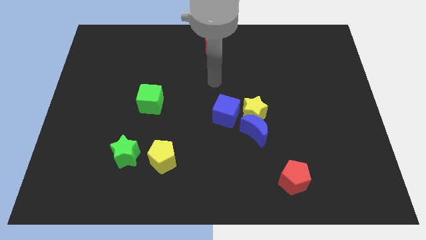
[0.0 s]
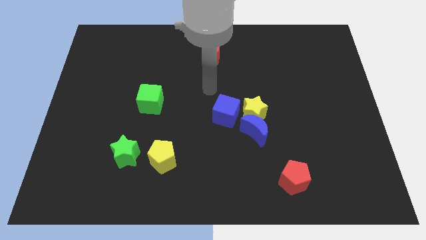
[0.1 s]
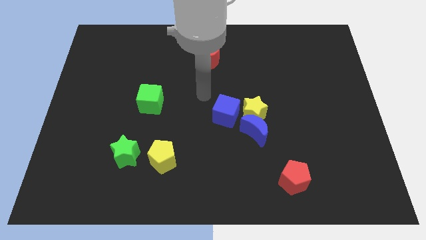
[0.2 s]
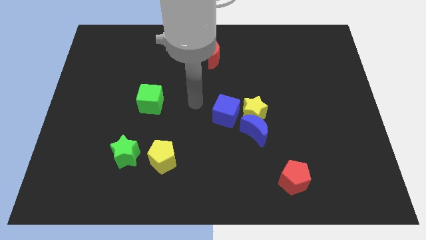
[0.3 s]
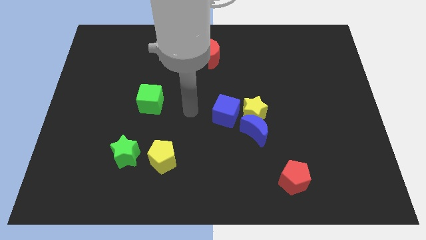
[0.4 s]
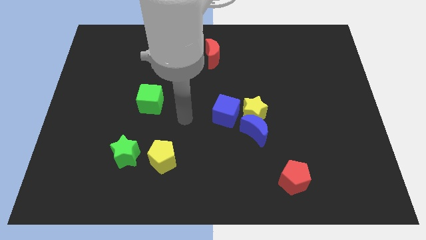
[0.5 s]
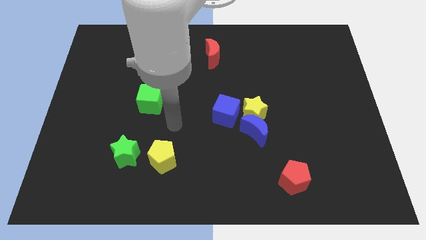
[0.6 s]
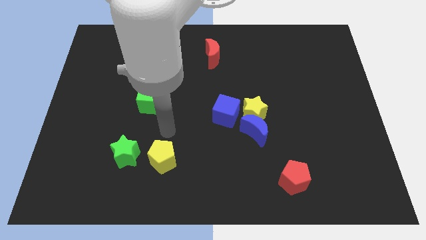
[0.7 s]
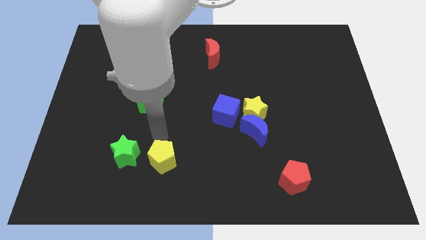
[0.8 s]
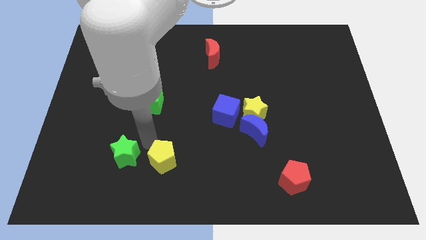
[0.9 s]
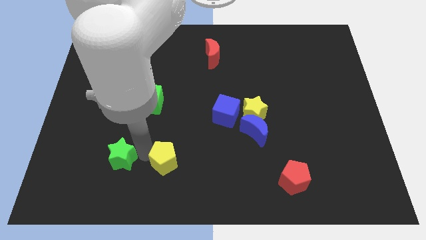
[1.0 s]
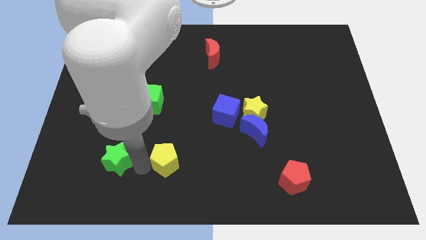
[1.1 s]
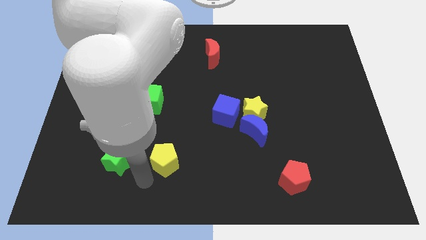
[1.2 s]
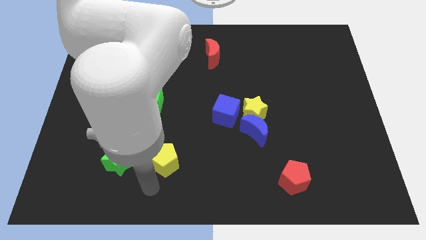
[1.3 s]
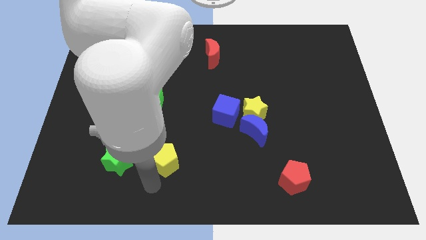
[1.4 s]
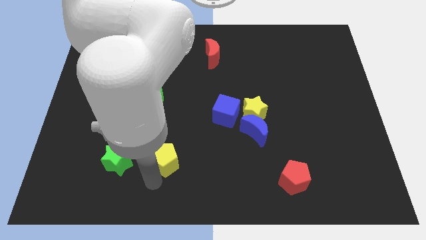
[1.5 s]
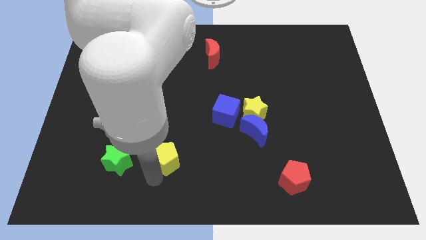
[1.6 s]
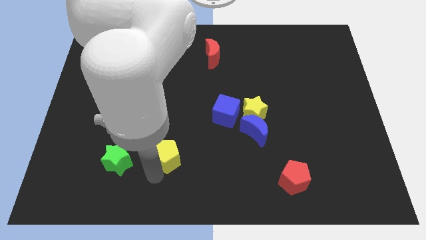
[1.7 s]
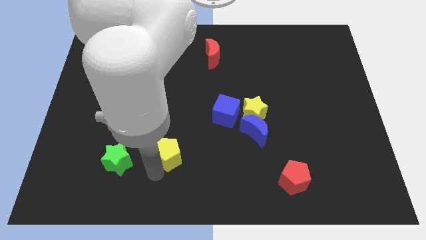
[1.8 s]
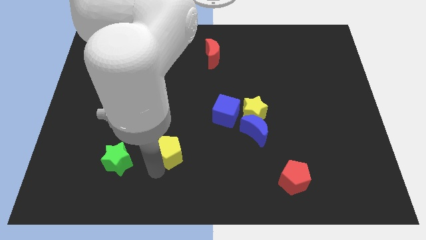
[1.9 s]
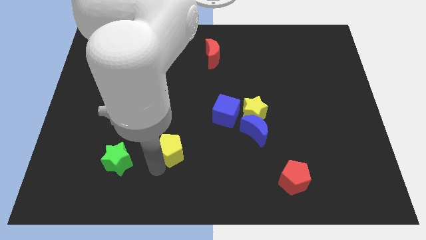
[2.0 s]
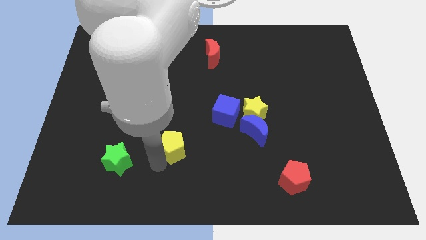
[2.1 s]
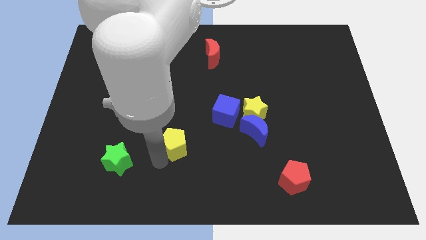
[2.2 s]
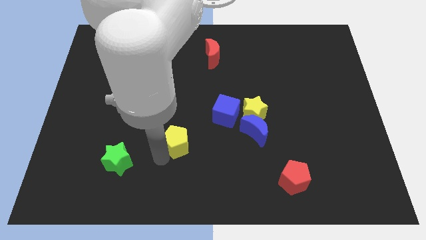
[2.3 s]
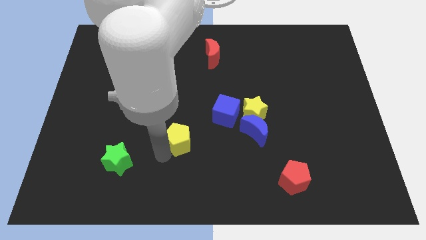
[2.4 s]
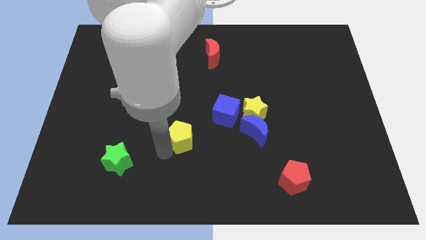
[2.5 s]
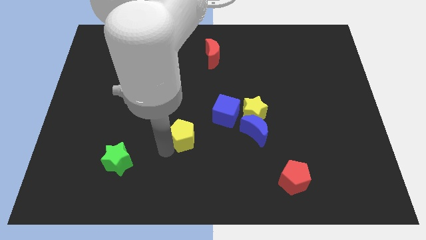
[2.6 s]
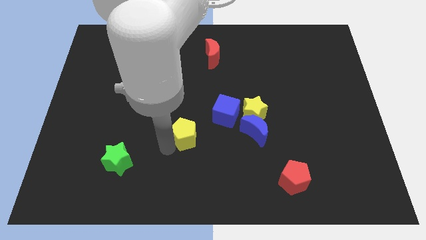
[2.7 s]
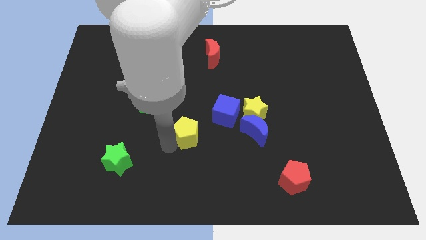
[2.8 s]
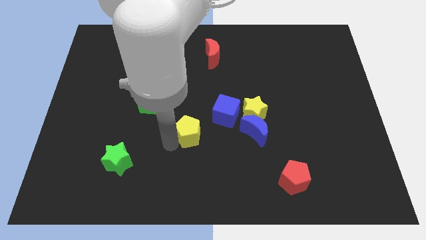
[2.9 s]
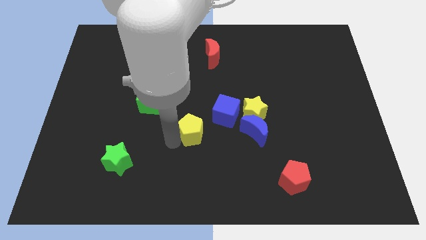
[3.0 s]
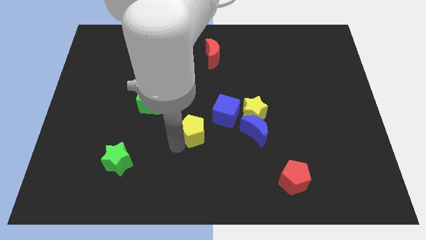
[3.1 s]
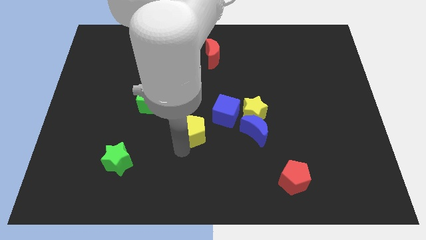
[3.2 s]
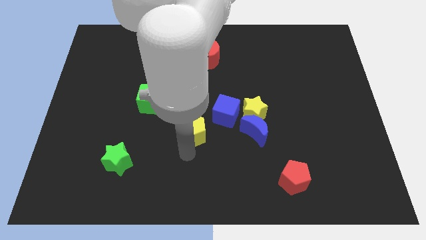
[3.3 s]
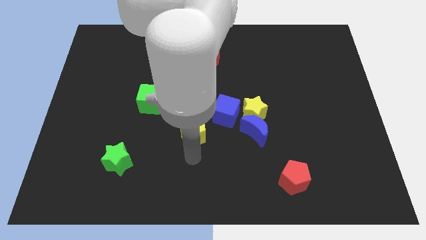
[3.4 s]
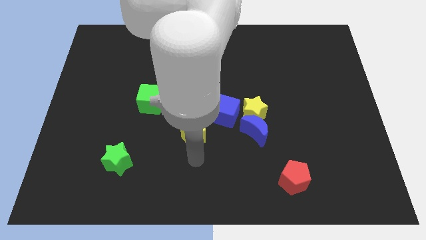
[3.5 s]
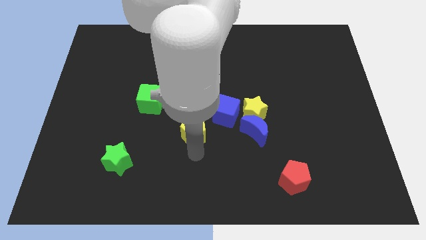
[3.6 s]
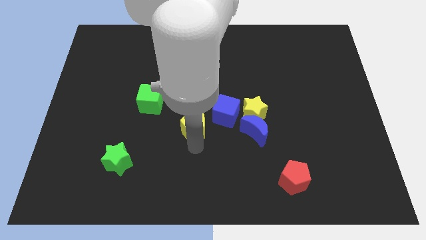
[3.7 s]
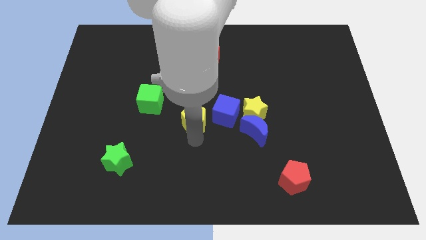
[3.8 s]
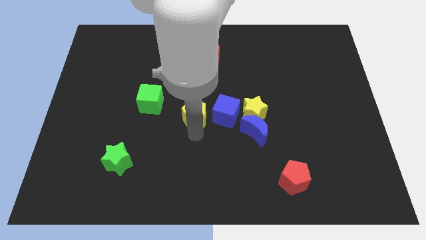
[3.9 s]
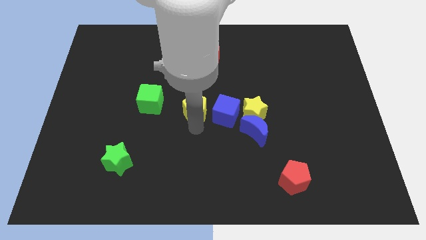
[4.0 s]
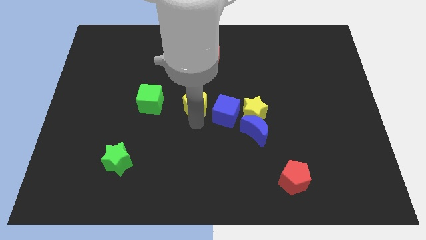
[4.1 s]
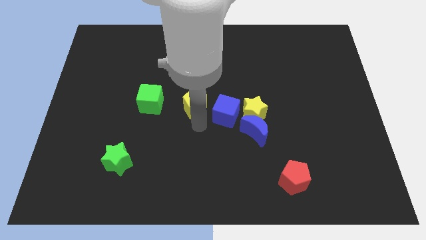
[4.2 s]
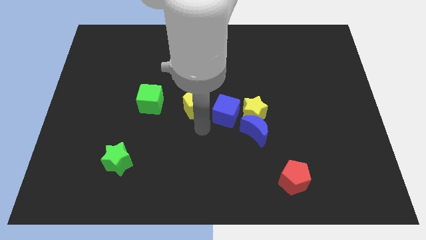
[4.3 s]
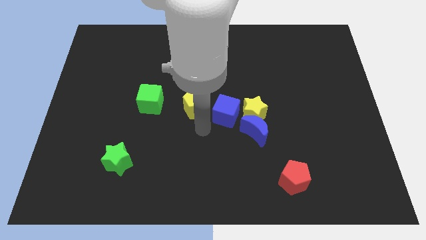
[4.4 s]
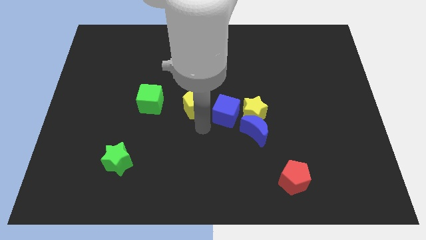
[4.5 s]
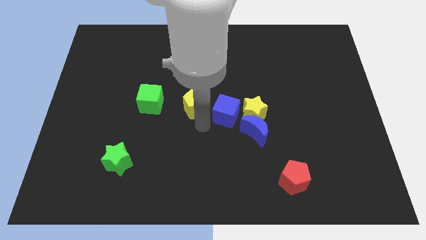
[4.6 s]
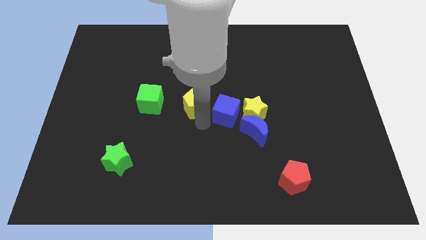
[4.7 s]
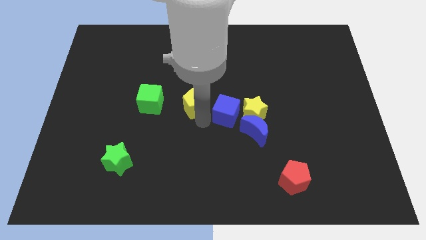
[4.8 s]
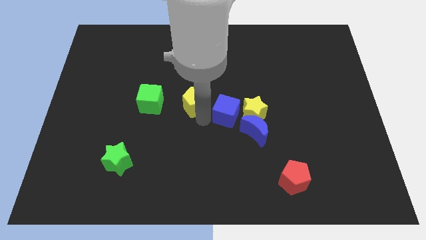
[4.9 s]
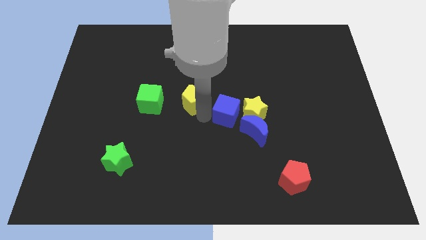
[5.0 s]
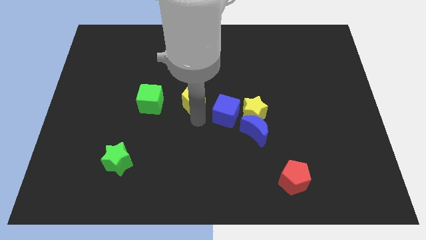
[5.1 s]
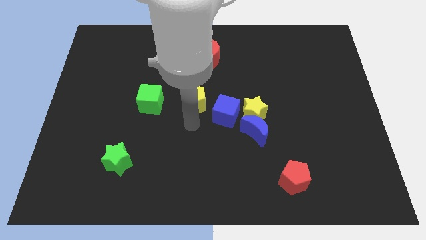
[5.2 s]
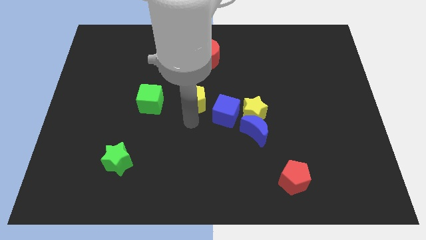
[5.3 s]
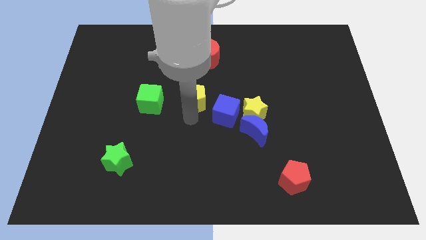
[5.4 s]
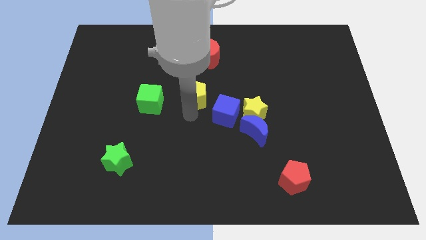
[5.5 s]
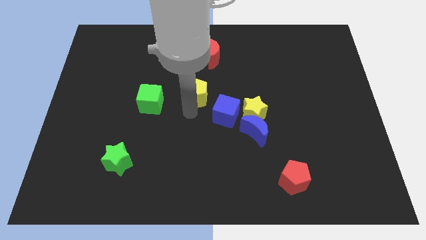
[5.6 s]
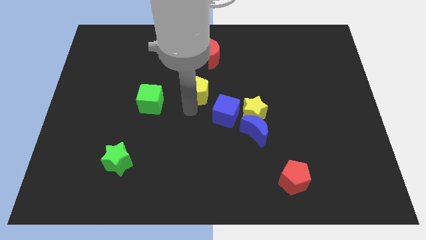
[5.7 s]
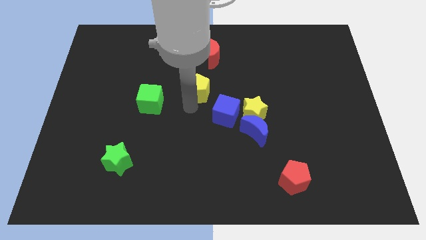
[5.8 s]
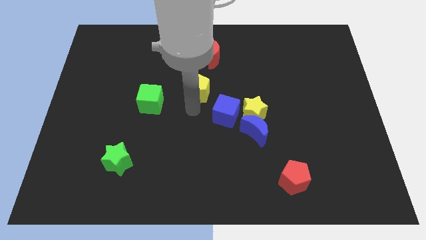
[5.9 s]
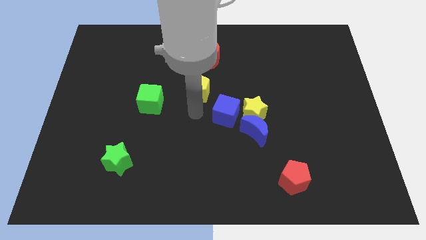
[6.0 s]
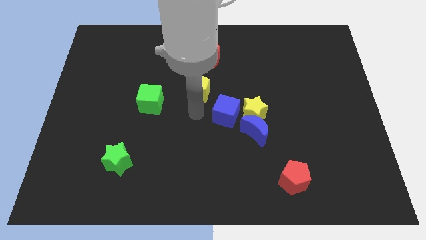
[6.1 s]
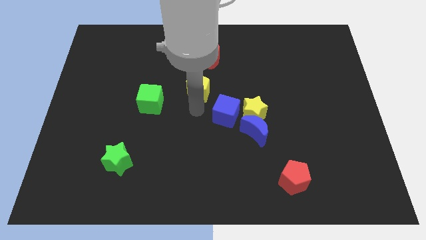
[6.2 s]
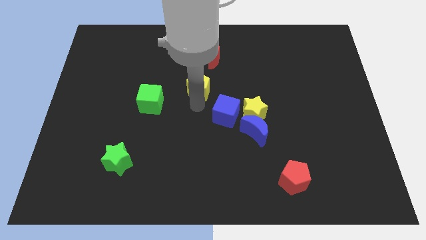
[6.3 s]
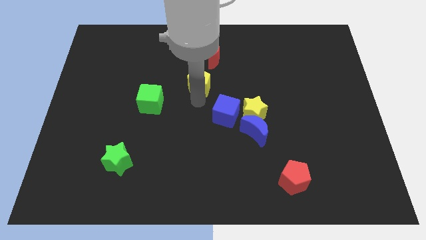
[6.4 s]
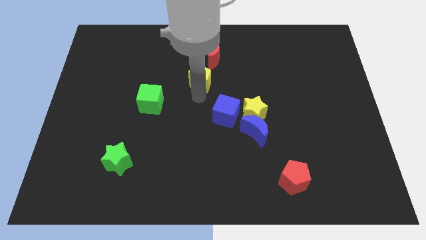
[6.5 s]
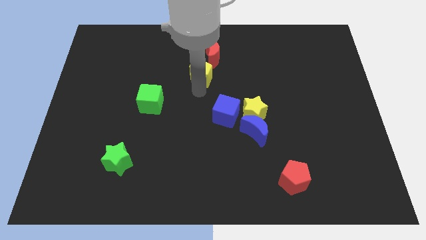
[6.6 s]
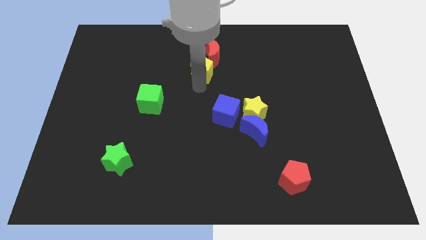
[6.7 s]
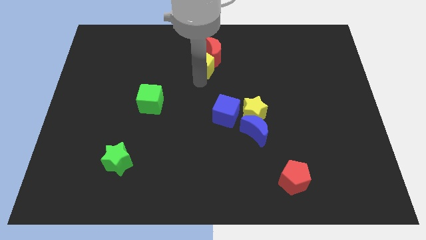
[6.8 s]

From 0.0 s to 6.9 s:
slide the yellow pentagon next to the red moon

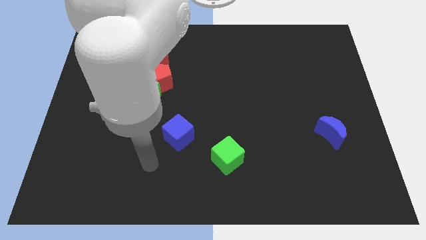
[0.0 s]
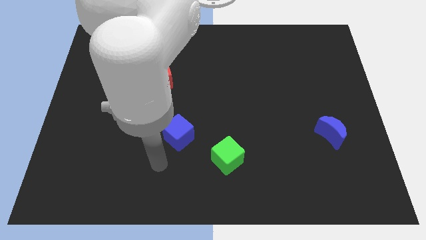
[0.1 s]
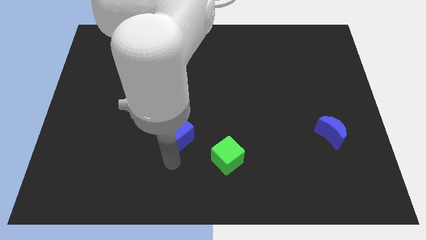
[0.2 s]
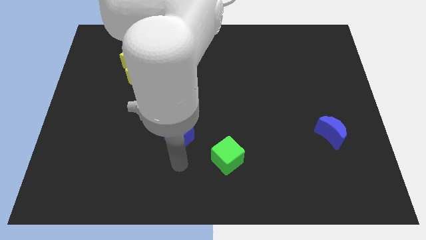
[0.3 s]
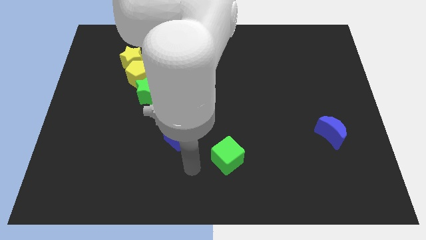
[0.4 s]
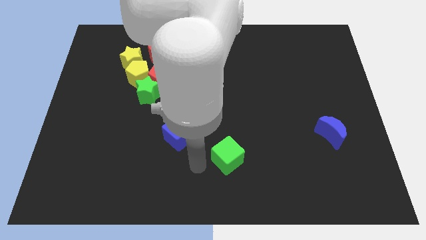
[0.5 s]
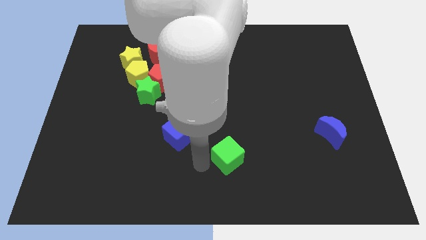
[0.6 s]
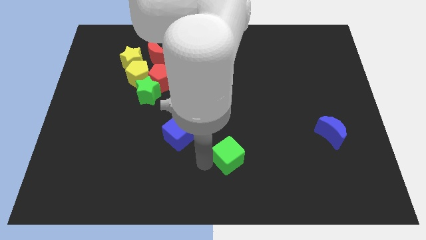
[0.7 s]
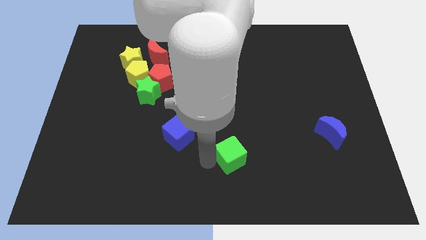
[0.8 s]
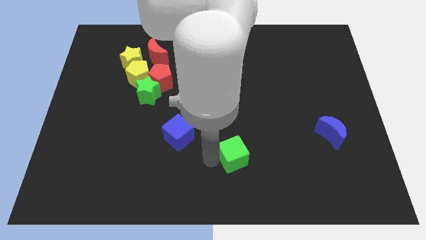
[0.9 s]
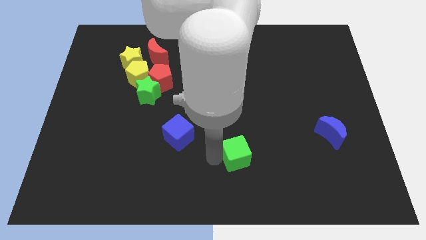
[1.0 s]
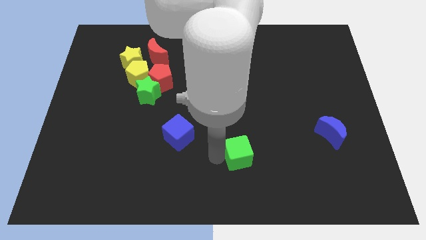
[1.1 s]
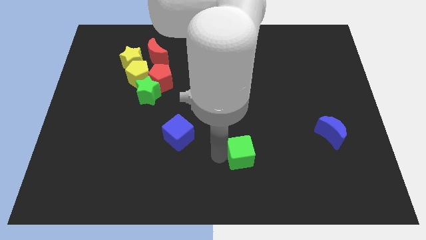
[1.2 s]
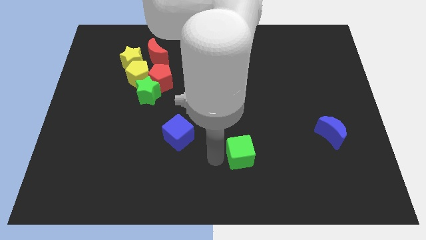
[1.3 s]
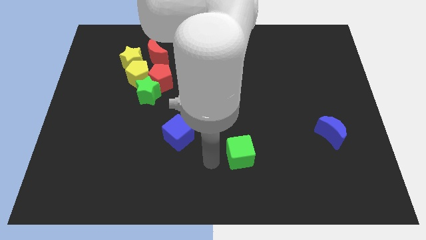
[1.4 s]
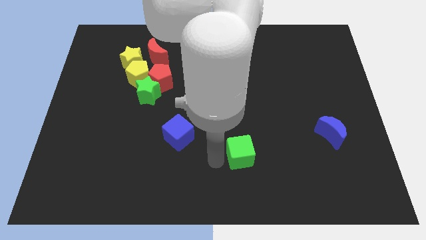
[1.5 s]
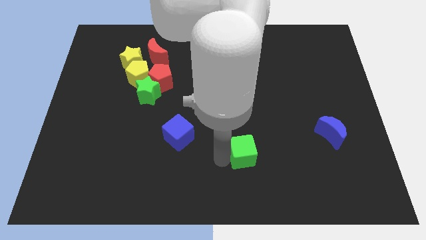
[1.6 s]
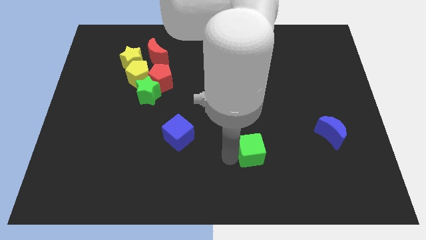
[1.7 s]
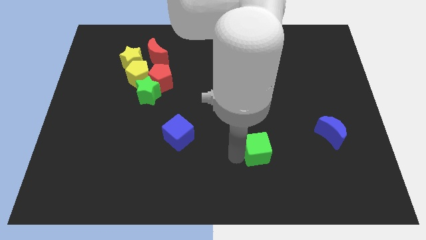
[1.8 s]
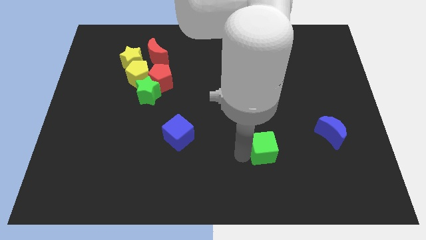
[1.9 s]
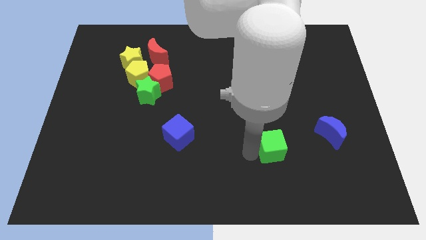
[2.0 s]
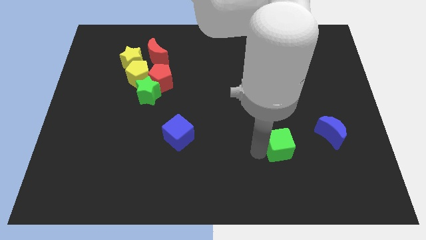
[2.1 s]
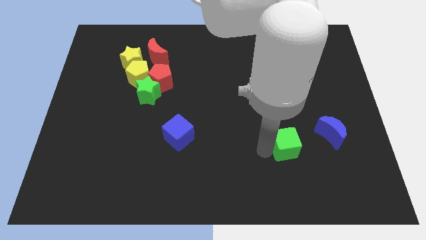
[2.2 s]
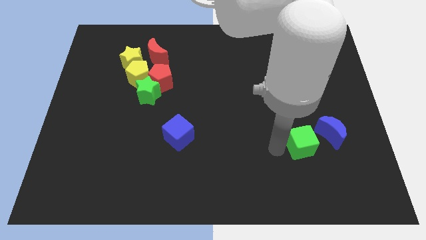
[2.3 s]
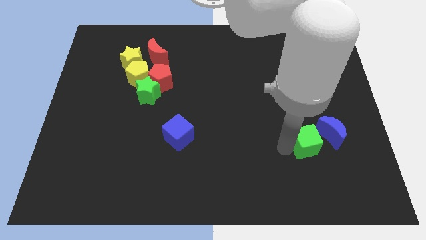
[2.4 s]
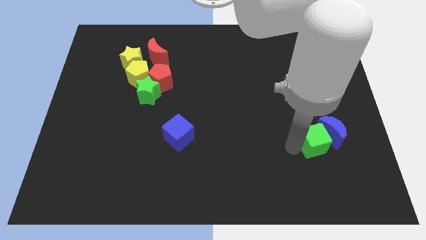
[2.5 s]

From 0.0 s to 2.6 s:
put the green cube next to the blue moon
